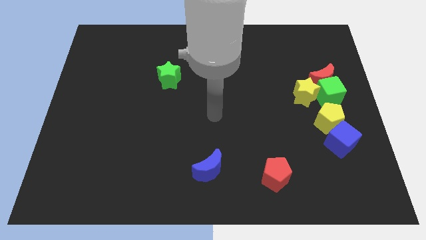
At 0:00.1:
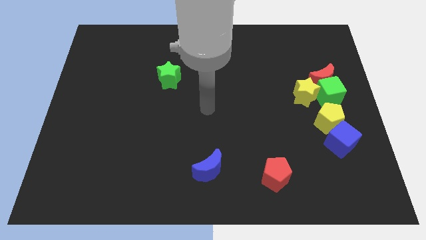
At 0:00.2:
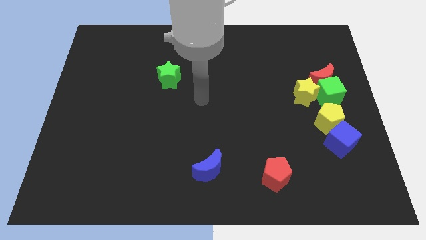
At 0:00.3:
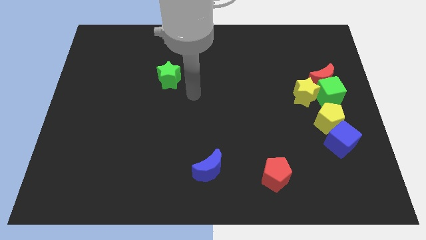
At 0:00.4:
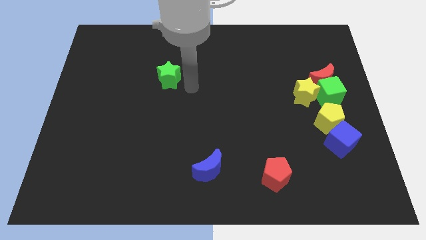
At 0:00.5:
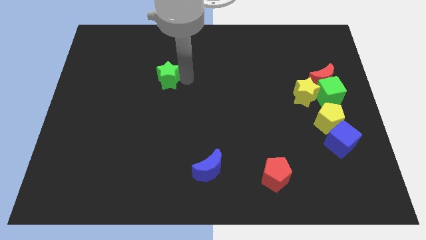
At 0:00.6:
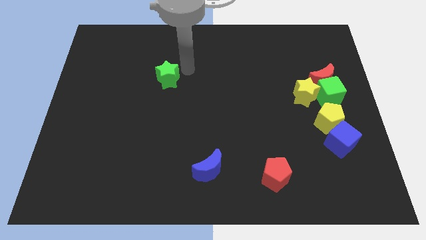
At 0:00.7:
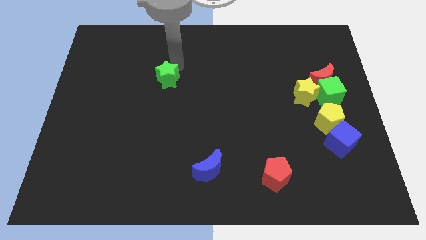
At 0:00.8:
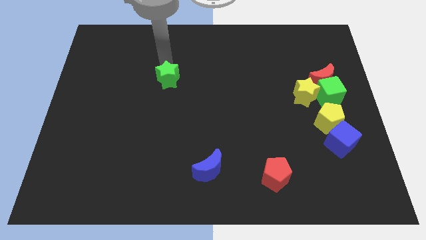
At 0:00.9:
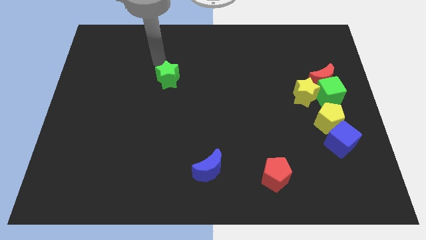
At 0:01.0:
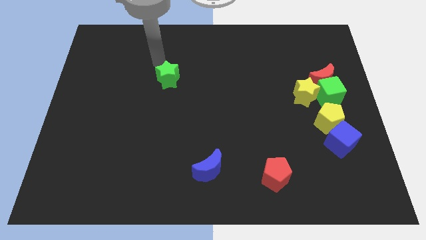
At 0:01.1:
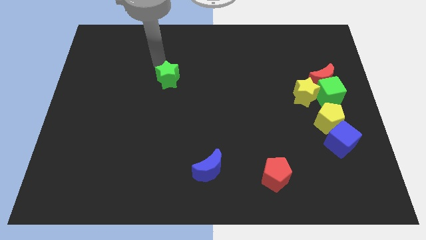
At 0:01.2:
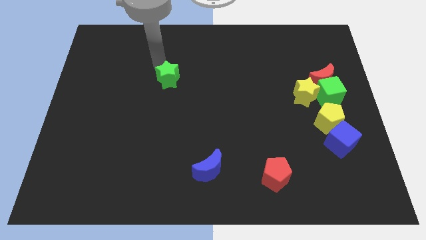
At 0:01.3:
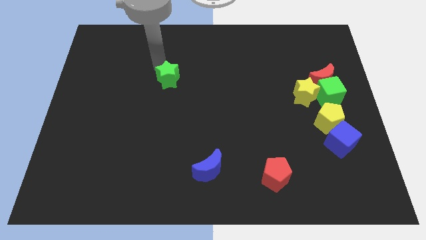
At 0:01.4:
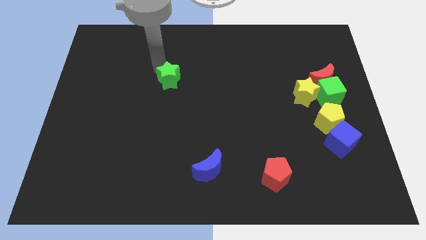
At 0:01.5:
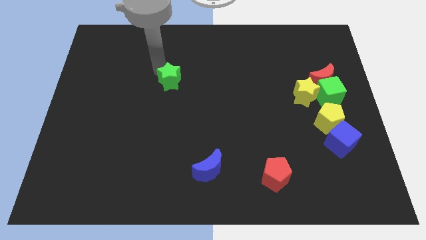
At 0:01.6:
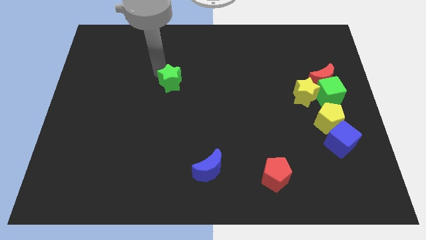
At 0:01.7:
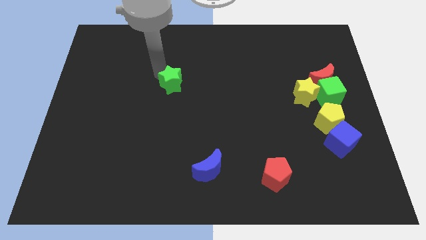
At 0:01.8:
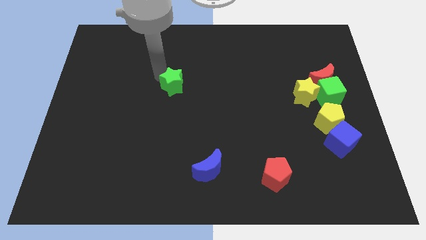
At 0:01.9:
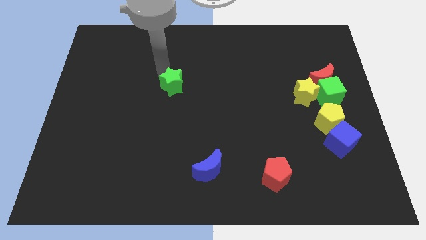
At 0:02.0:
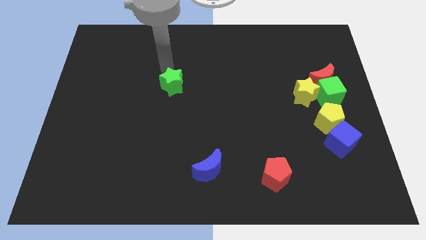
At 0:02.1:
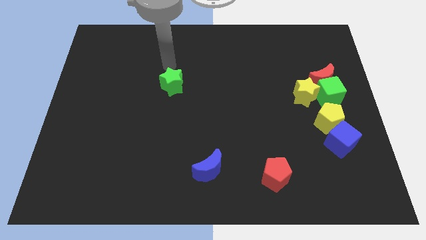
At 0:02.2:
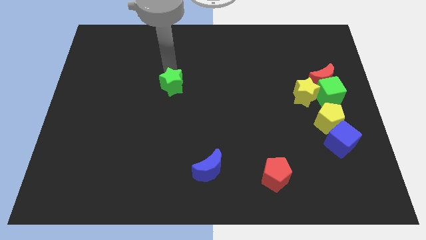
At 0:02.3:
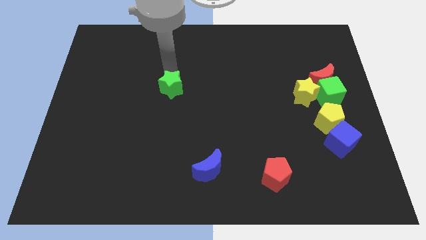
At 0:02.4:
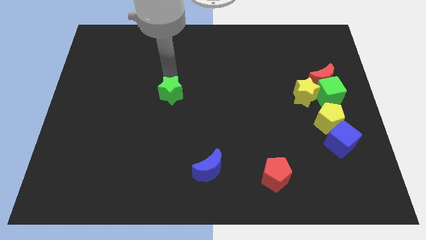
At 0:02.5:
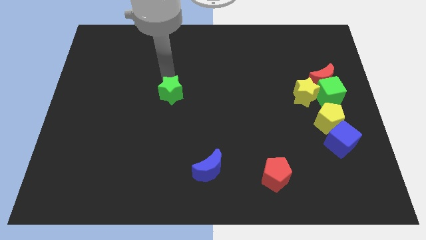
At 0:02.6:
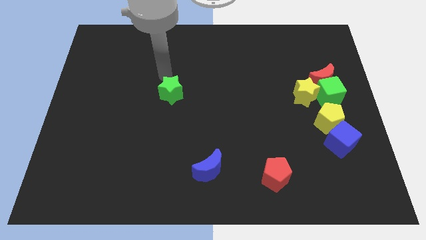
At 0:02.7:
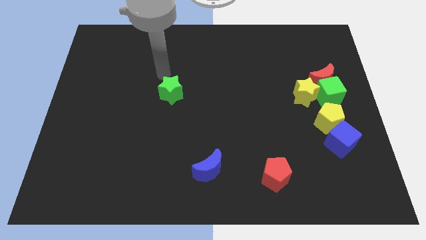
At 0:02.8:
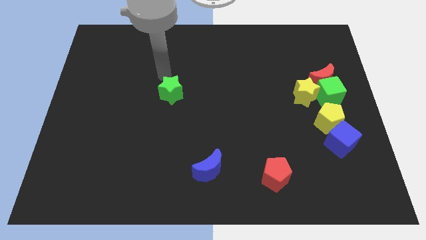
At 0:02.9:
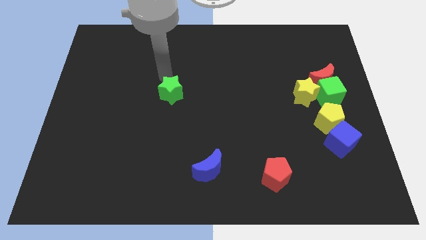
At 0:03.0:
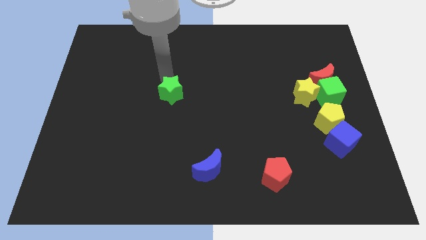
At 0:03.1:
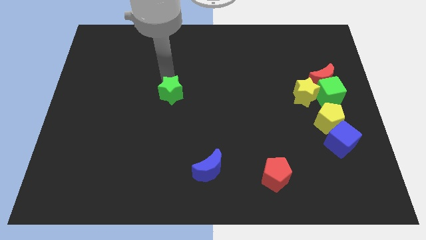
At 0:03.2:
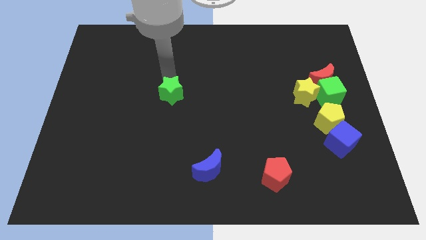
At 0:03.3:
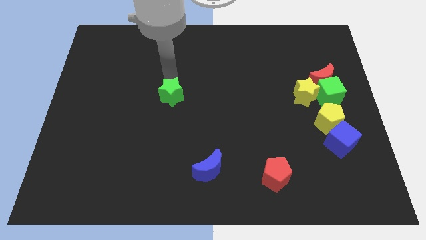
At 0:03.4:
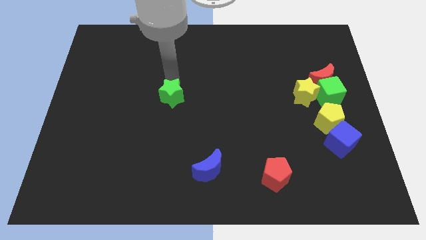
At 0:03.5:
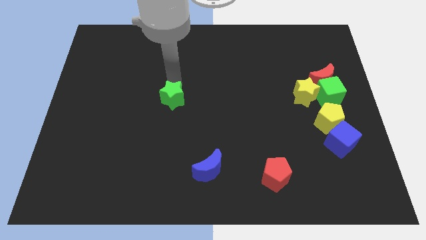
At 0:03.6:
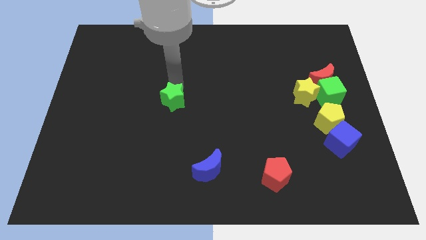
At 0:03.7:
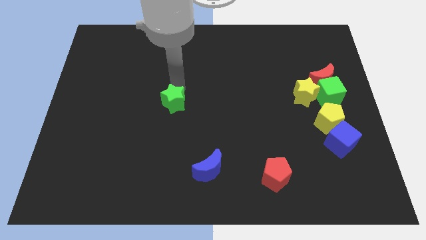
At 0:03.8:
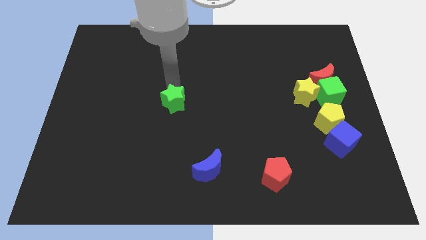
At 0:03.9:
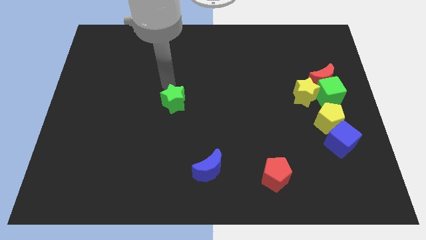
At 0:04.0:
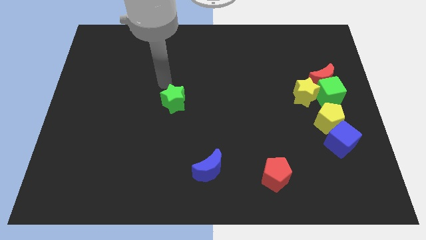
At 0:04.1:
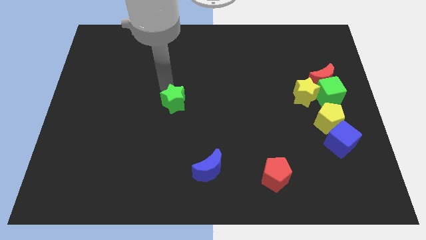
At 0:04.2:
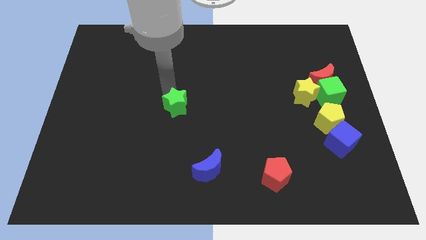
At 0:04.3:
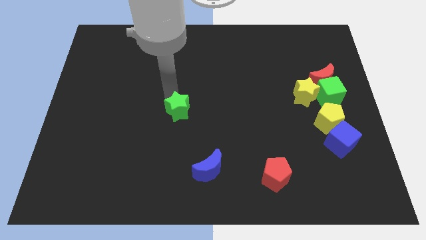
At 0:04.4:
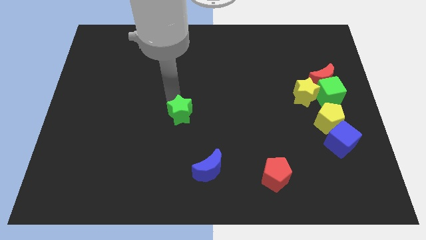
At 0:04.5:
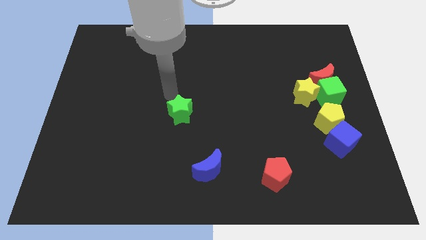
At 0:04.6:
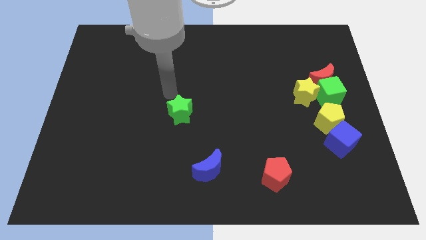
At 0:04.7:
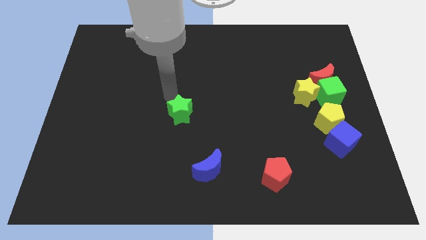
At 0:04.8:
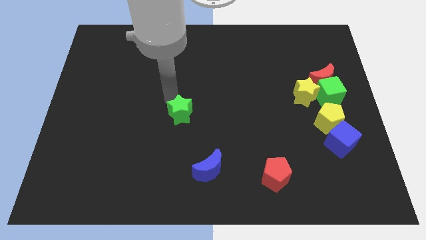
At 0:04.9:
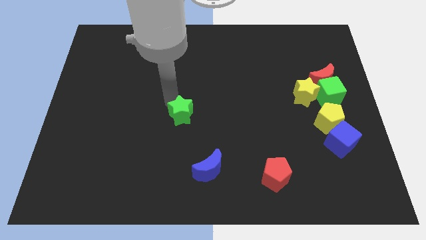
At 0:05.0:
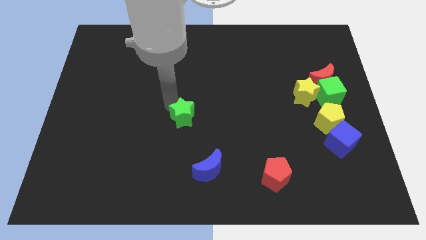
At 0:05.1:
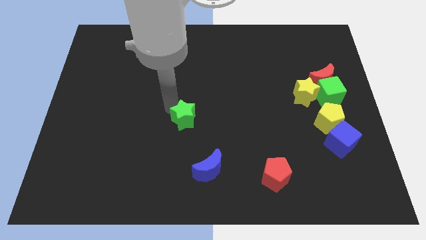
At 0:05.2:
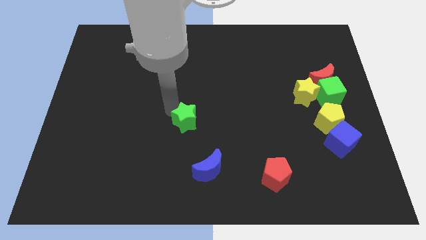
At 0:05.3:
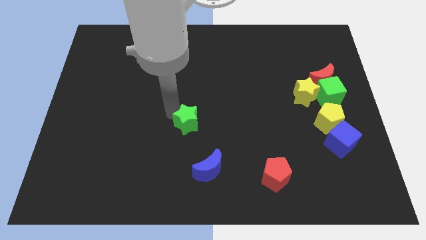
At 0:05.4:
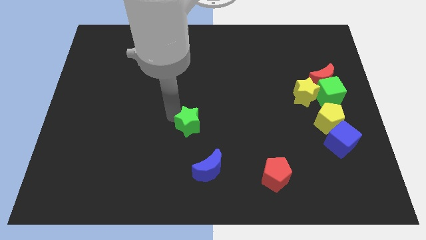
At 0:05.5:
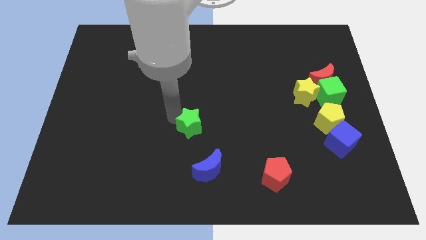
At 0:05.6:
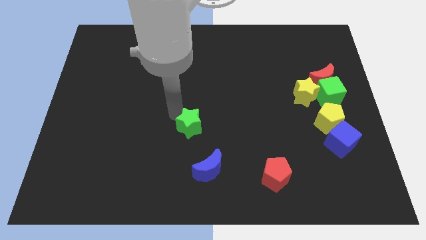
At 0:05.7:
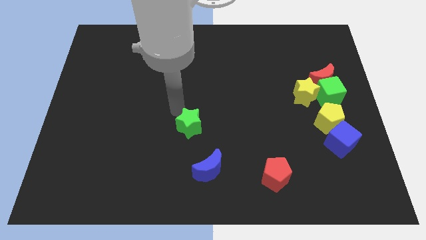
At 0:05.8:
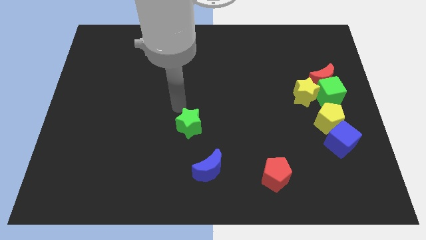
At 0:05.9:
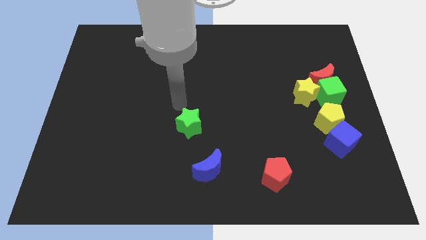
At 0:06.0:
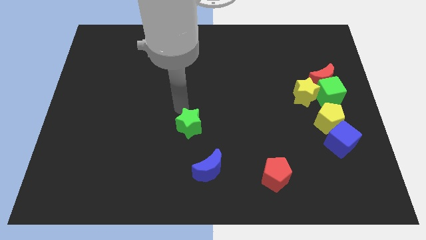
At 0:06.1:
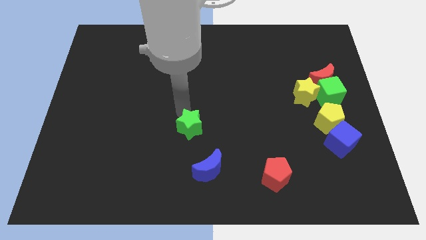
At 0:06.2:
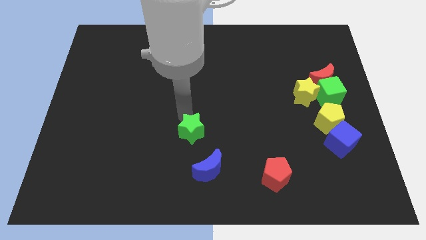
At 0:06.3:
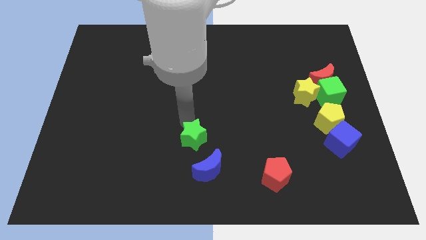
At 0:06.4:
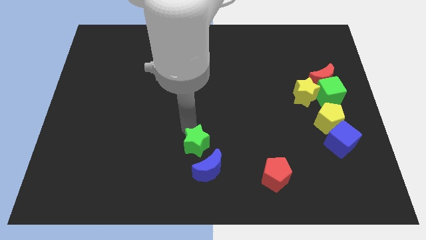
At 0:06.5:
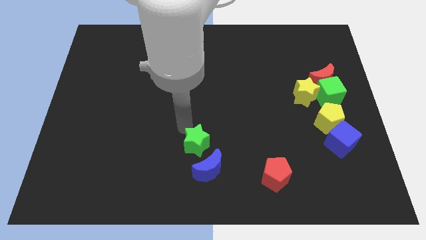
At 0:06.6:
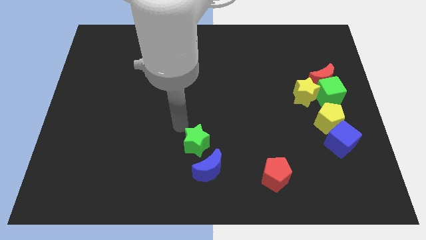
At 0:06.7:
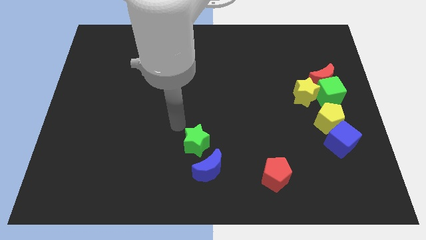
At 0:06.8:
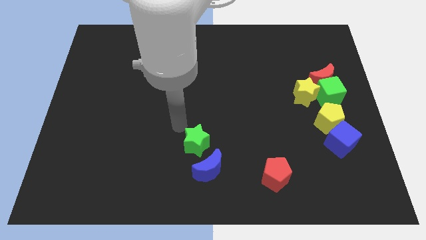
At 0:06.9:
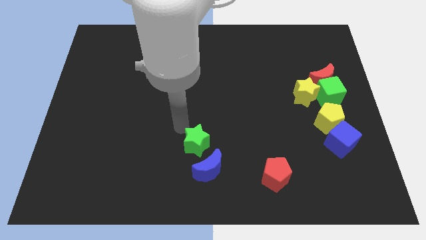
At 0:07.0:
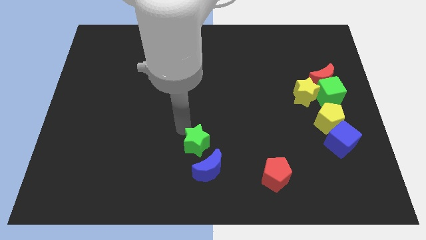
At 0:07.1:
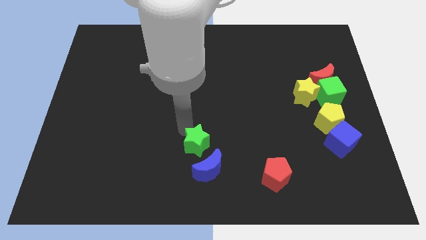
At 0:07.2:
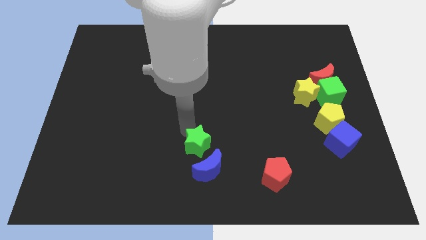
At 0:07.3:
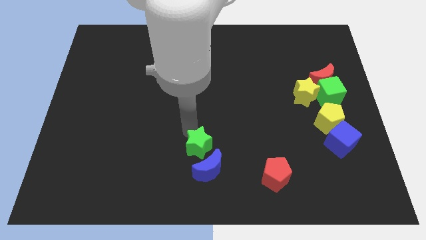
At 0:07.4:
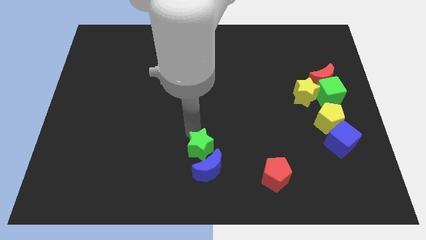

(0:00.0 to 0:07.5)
move the green star next to the blue moon
